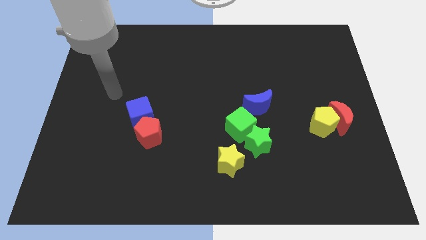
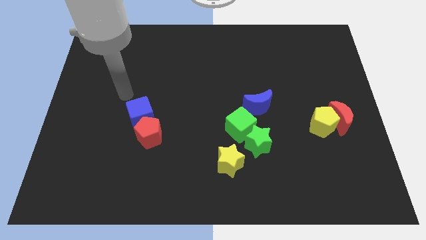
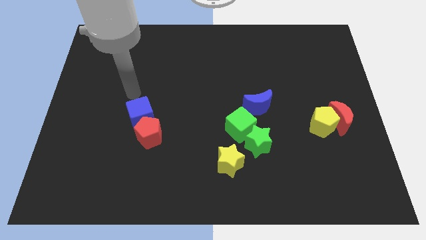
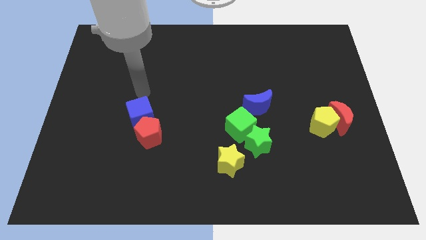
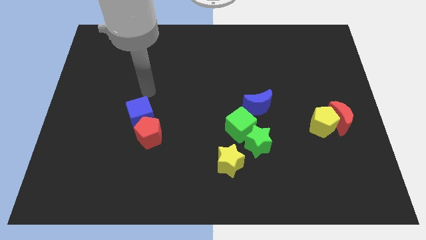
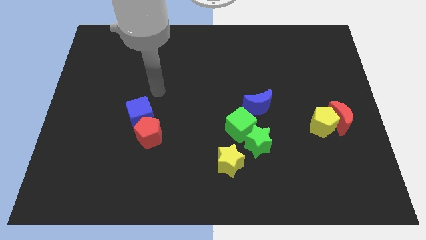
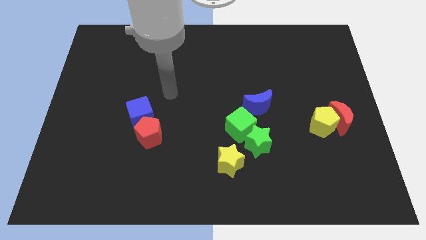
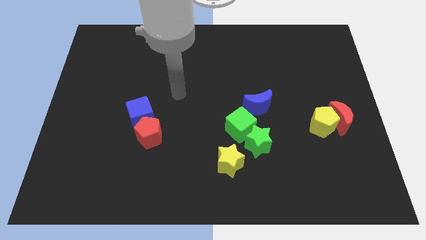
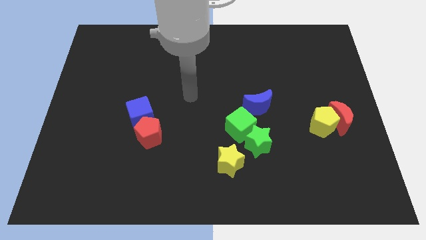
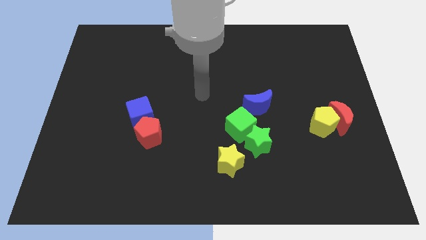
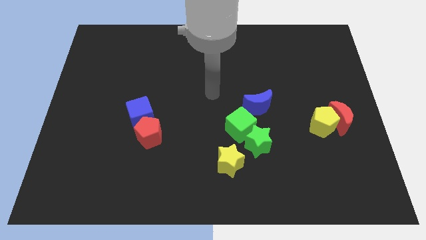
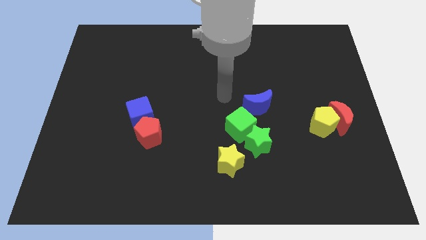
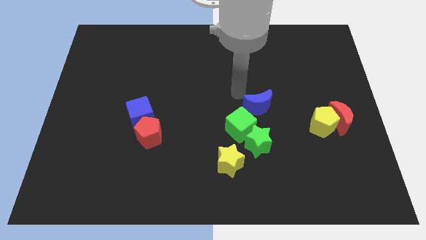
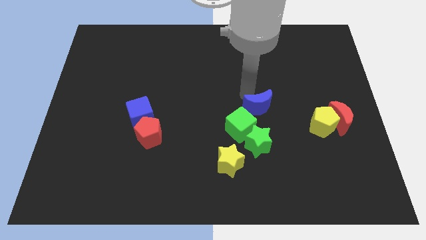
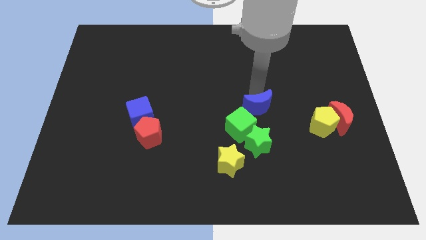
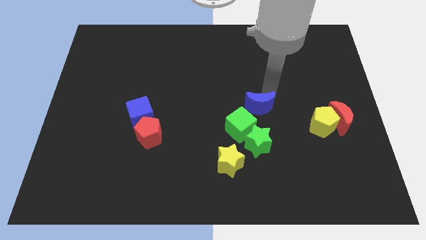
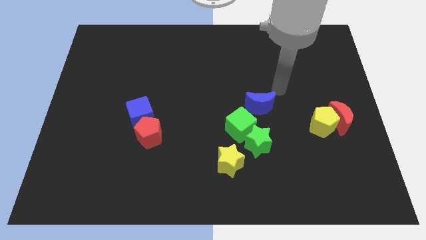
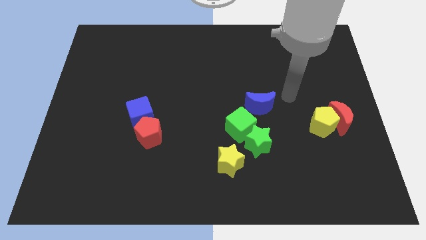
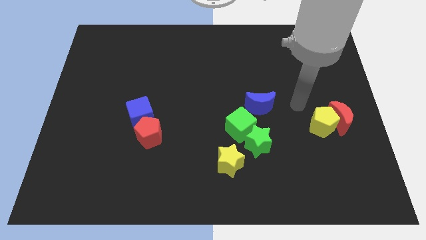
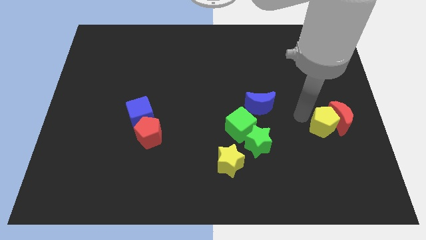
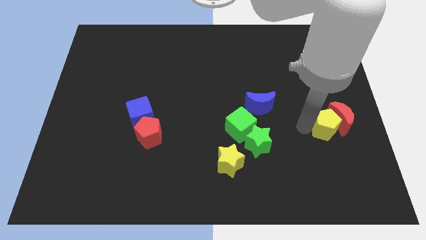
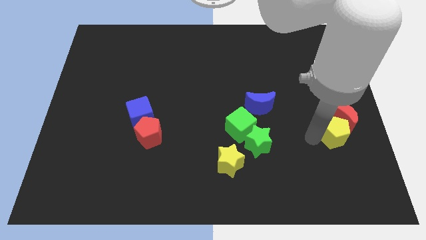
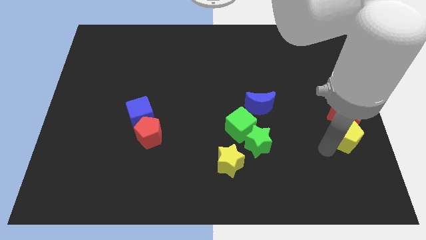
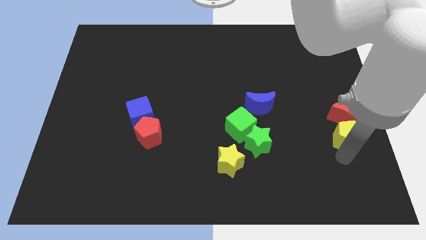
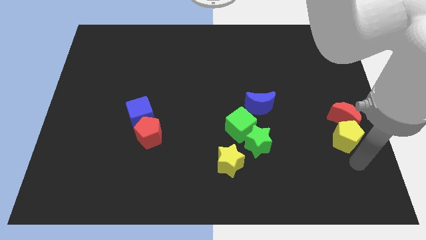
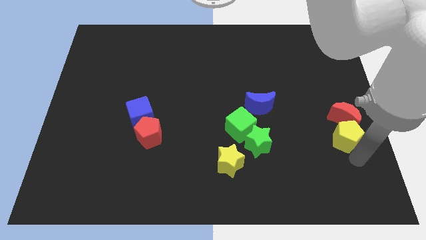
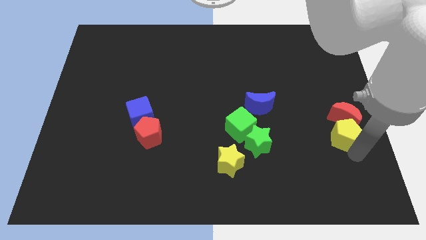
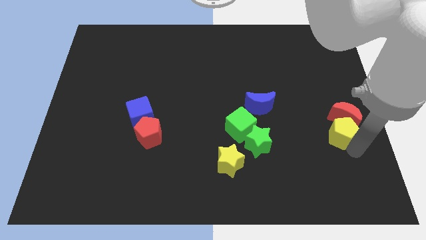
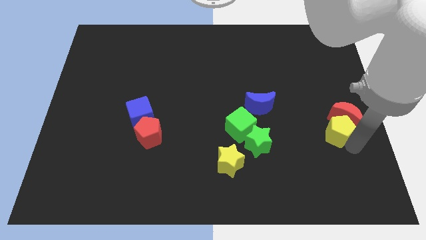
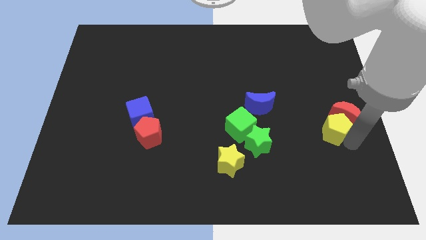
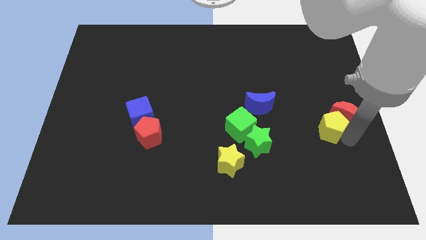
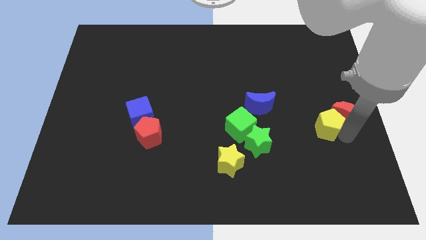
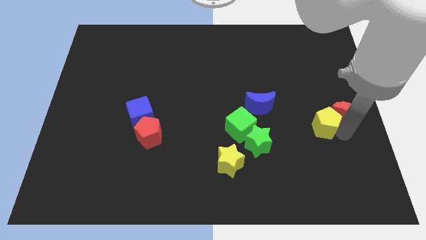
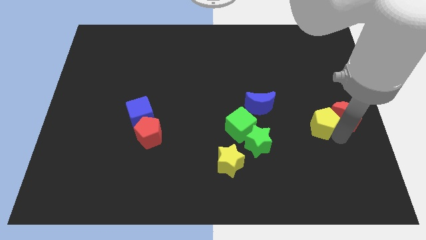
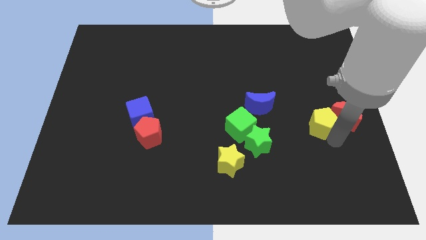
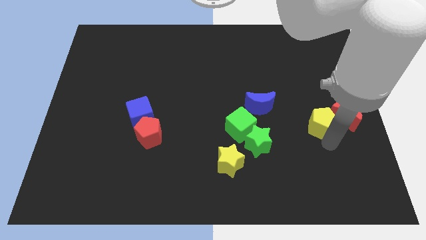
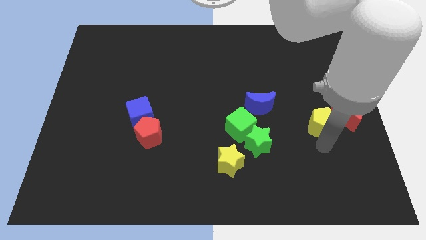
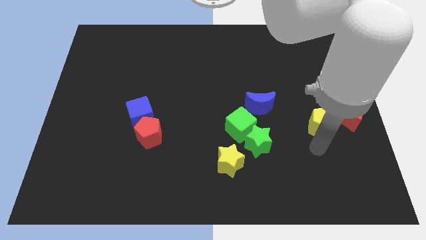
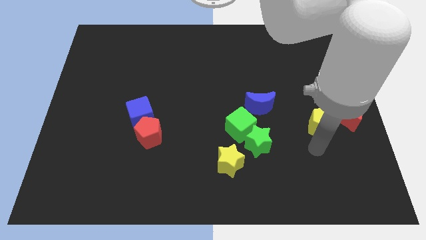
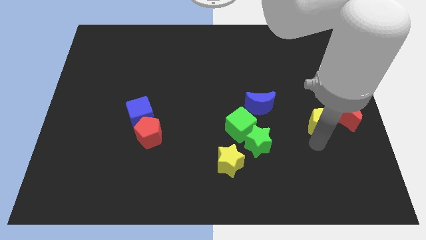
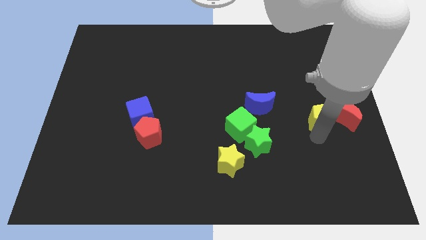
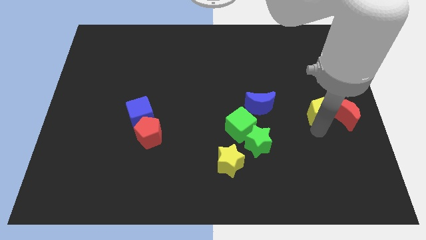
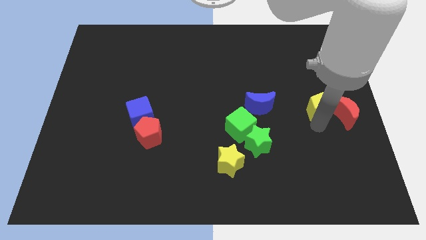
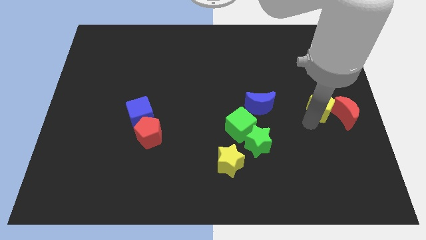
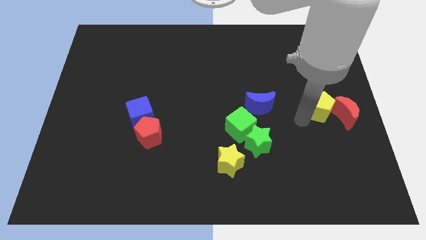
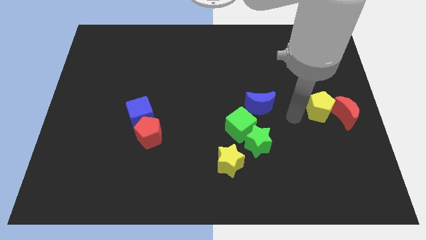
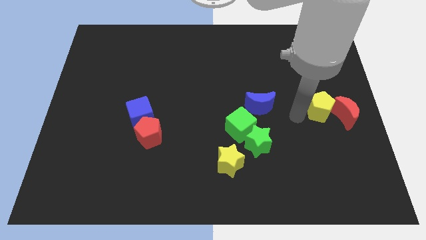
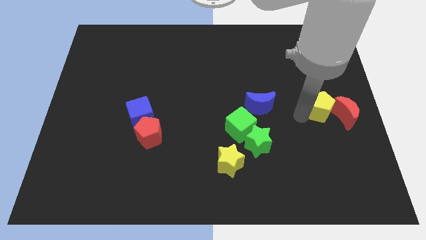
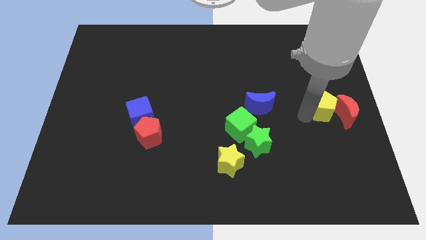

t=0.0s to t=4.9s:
push the yellow pentagon to the right side

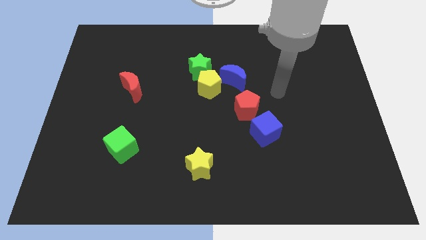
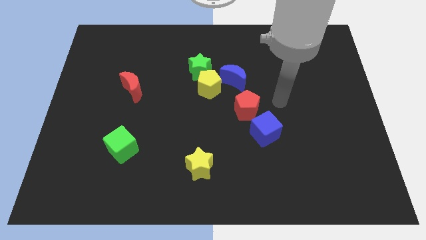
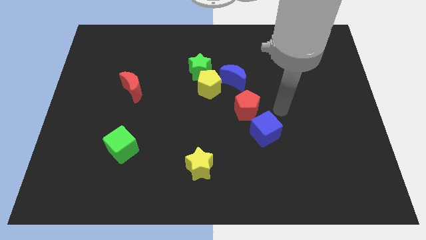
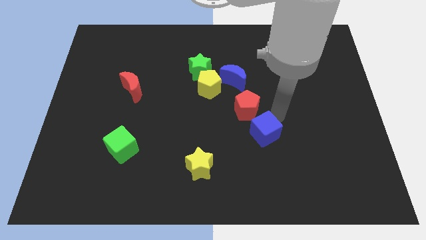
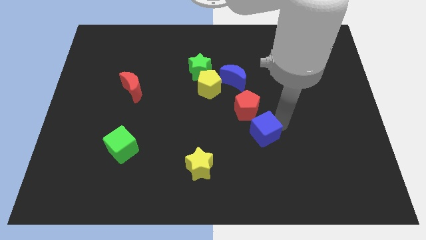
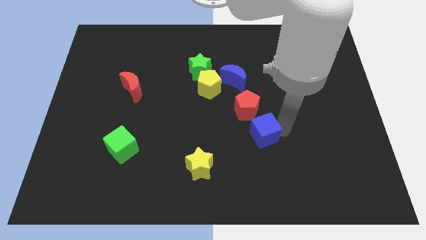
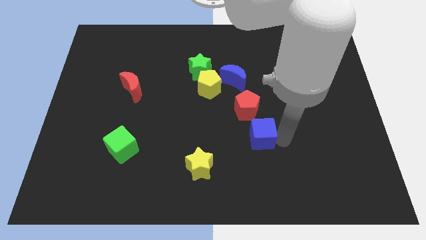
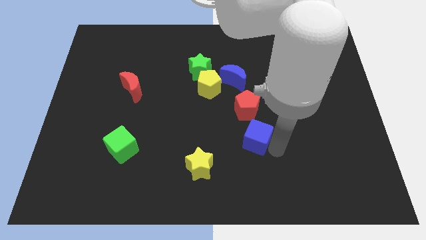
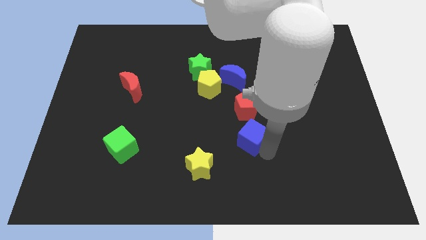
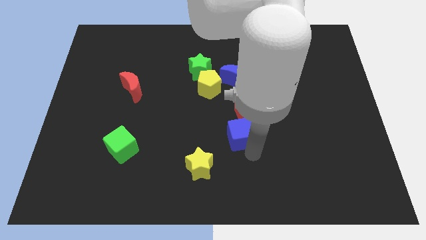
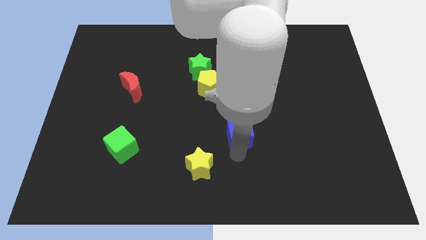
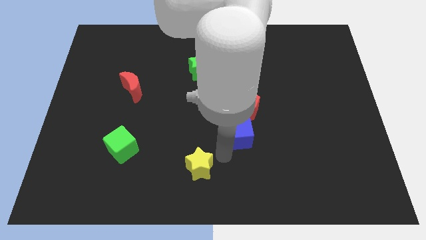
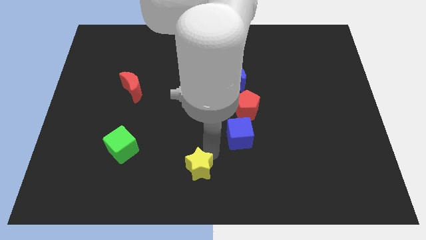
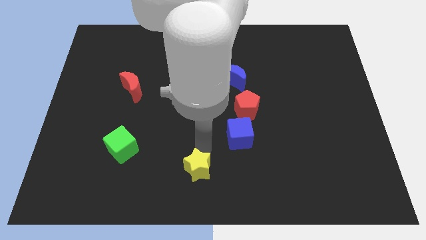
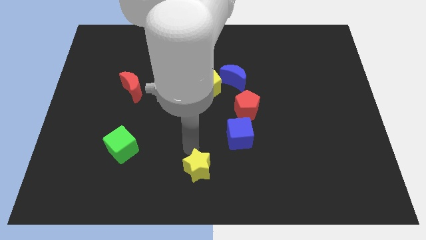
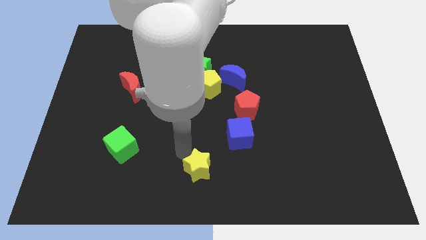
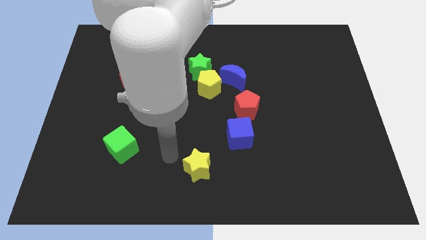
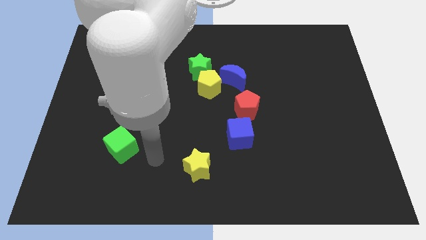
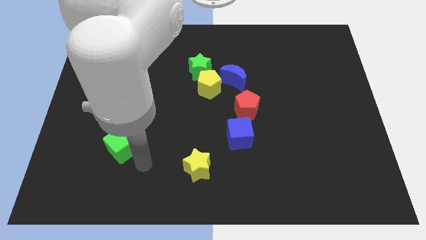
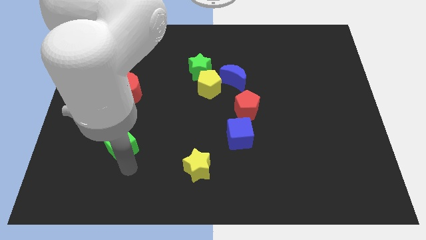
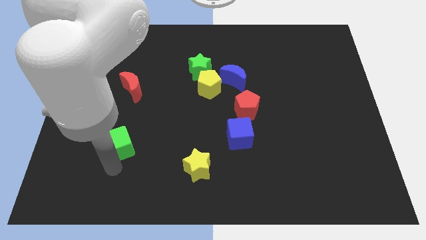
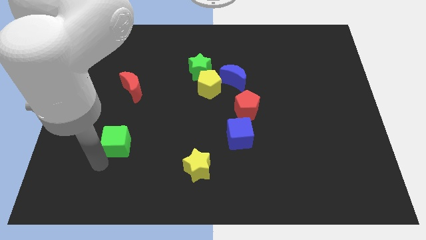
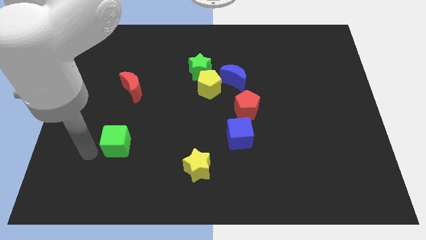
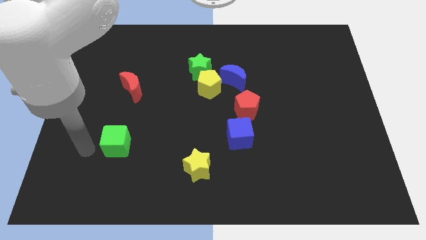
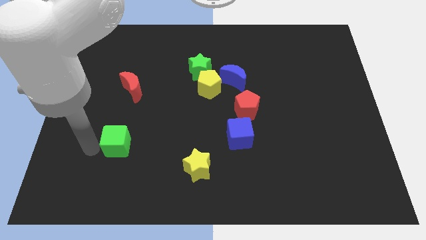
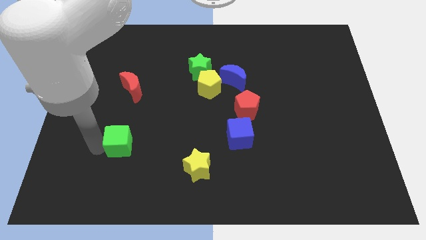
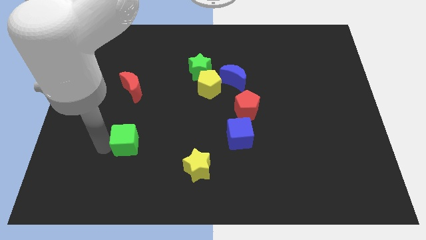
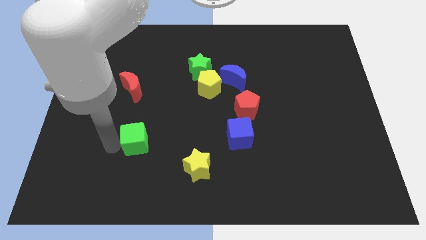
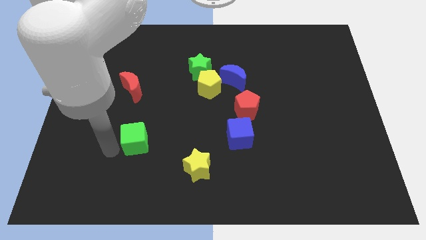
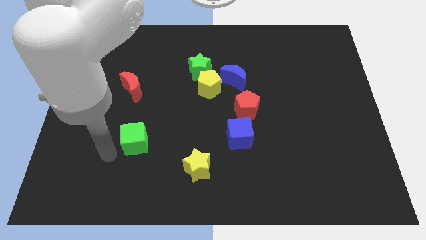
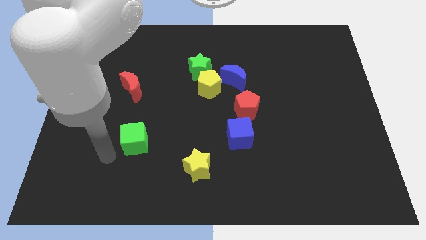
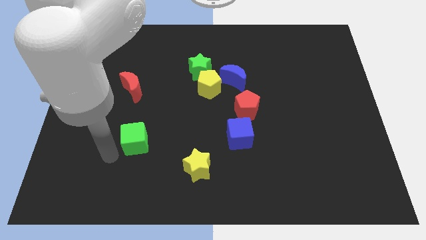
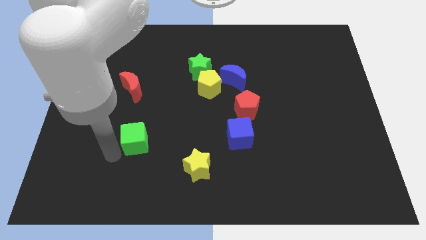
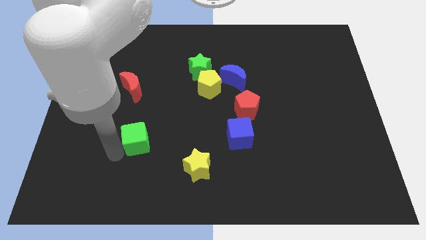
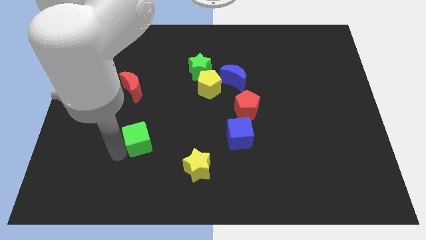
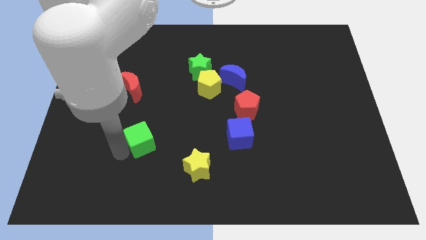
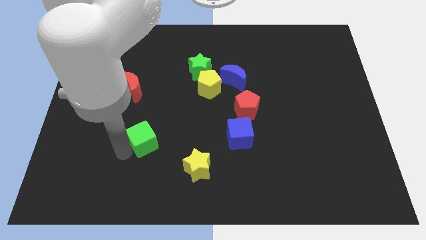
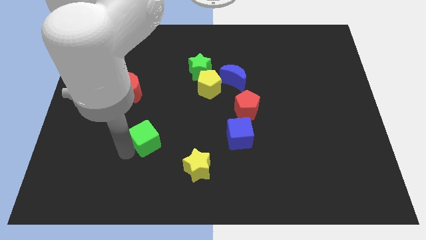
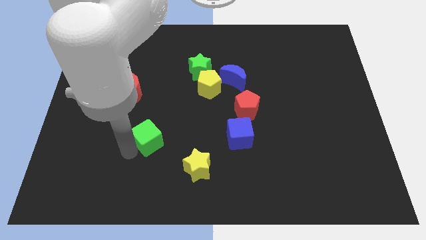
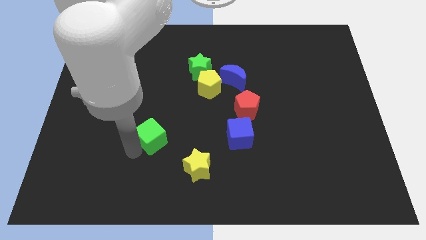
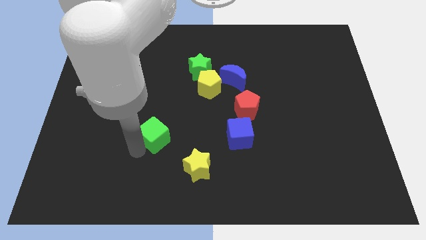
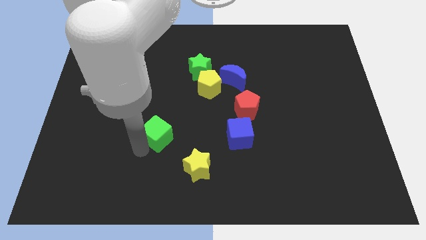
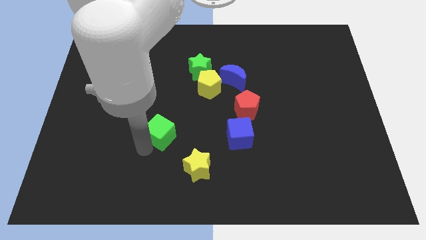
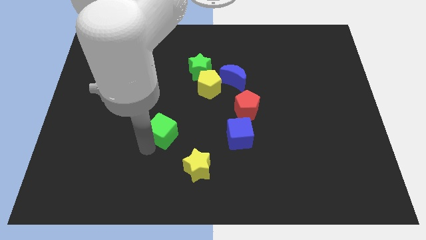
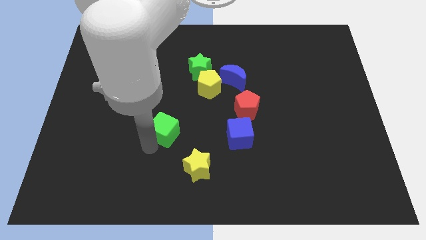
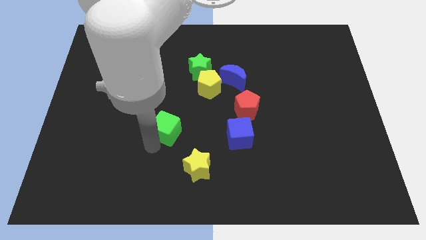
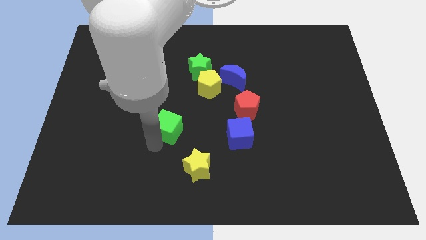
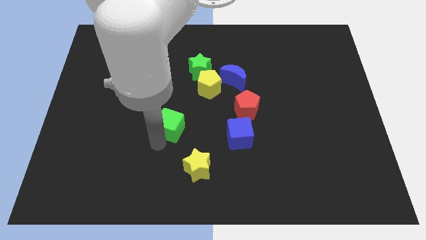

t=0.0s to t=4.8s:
slide the green cube to the middle
